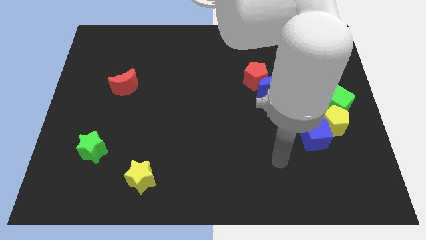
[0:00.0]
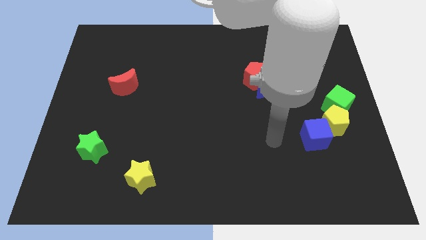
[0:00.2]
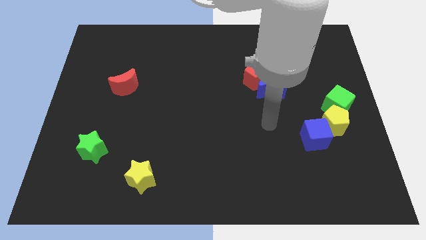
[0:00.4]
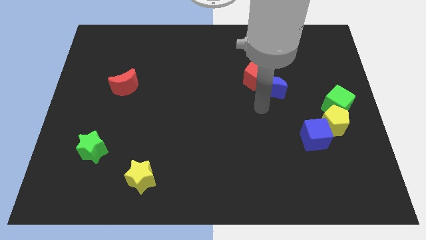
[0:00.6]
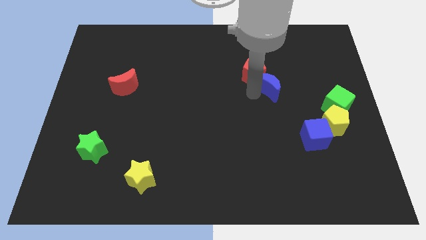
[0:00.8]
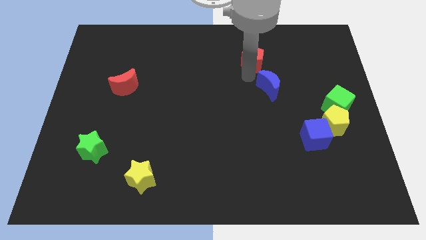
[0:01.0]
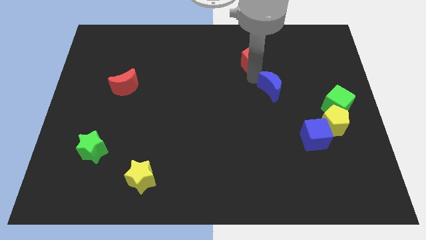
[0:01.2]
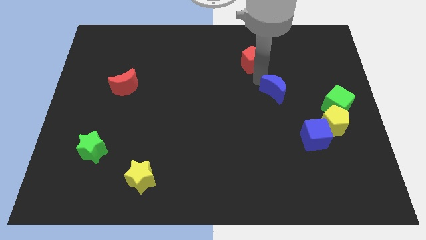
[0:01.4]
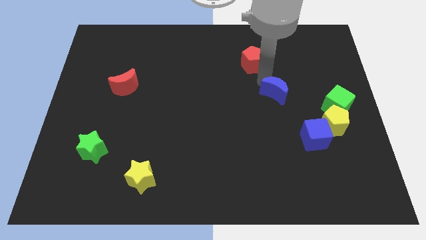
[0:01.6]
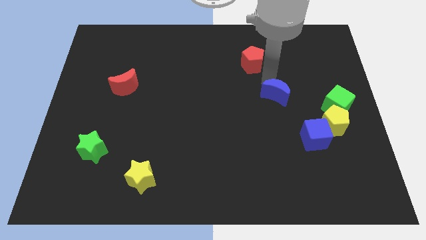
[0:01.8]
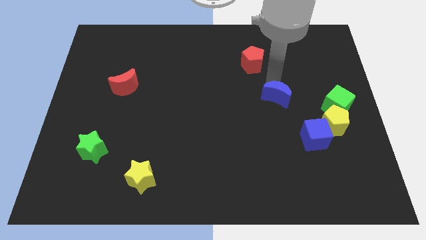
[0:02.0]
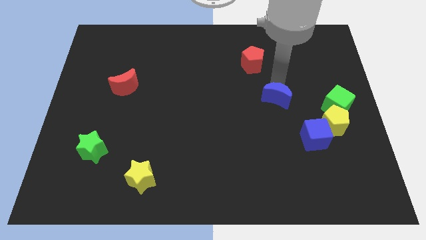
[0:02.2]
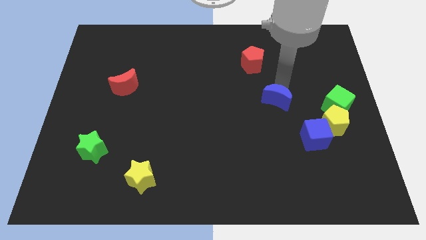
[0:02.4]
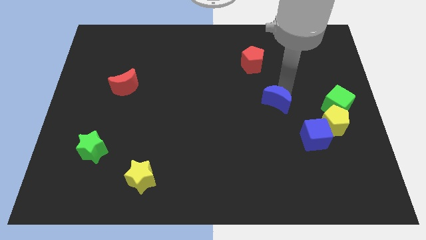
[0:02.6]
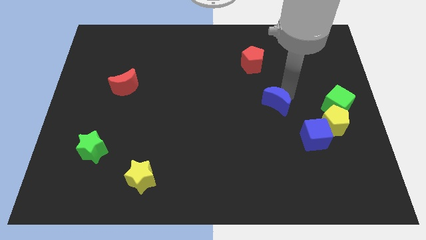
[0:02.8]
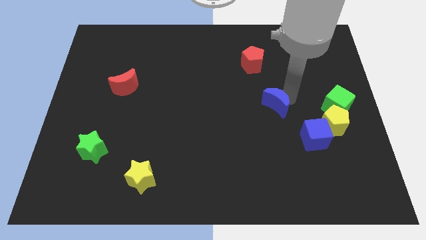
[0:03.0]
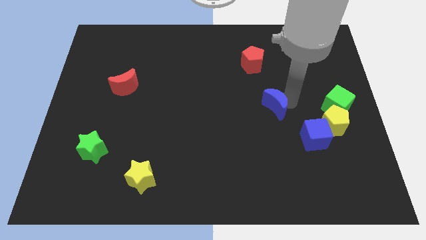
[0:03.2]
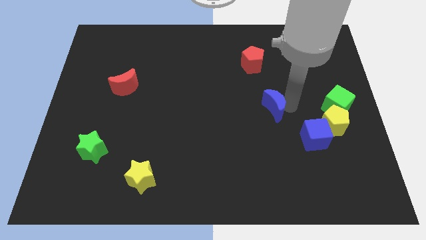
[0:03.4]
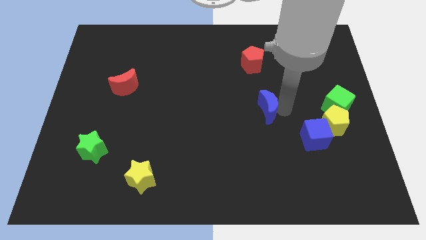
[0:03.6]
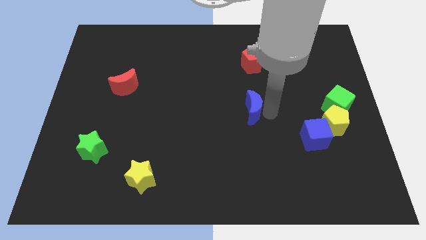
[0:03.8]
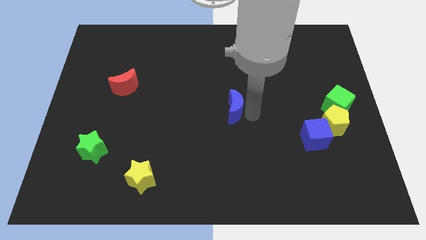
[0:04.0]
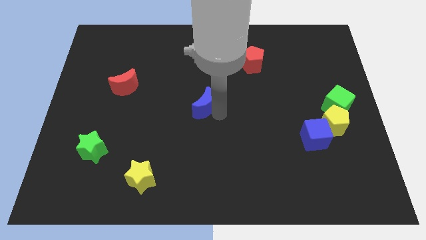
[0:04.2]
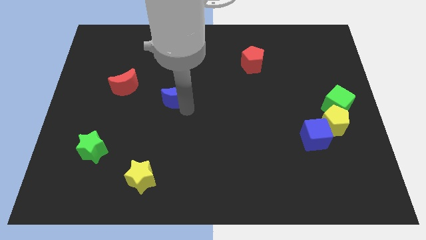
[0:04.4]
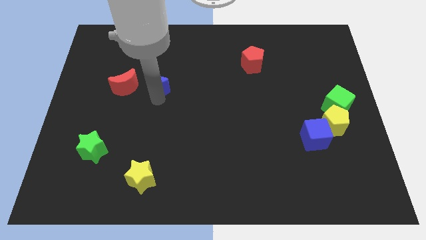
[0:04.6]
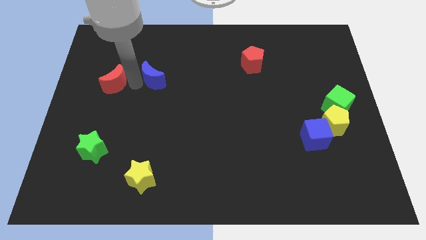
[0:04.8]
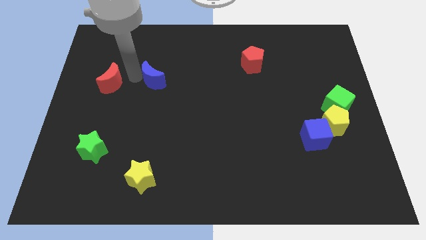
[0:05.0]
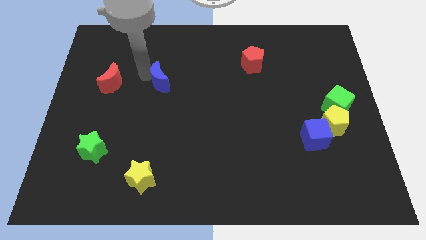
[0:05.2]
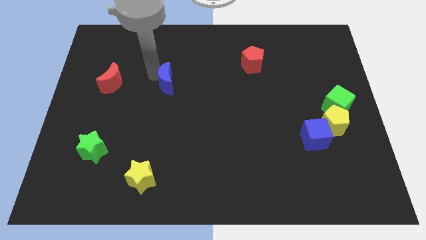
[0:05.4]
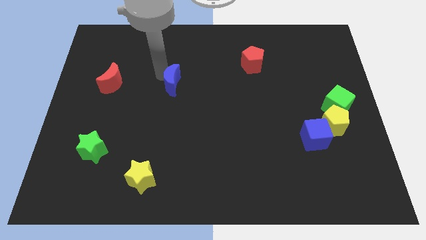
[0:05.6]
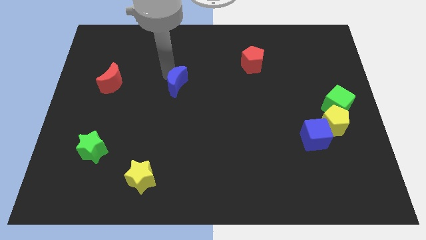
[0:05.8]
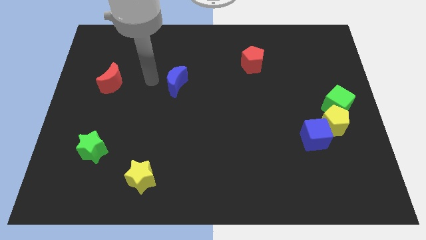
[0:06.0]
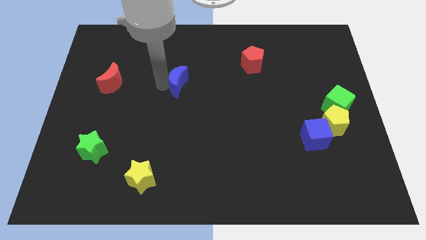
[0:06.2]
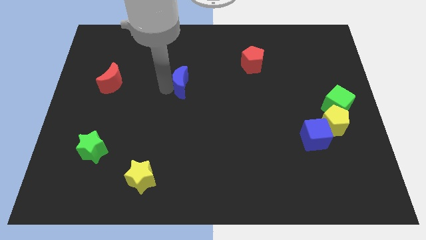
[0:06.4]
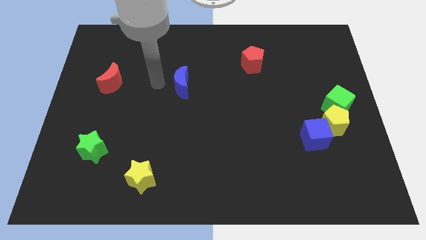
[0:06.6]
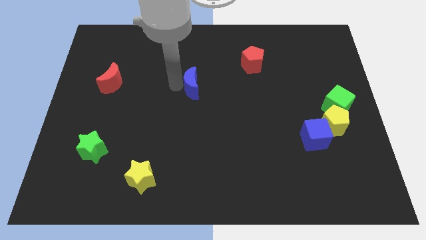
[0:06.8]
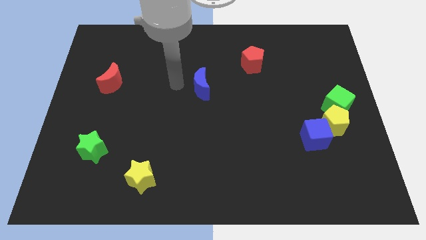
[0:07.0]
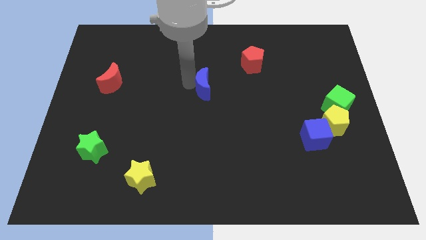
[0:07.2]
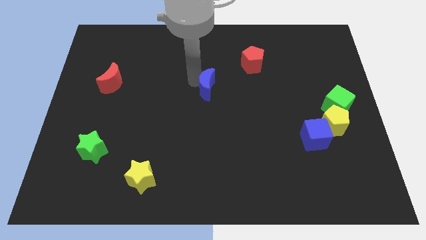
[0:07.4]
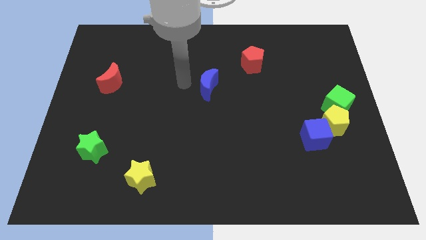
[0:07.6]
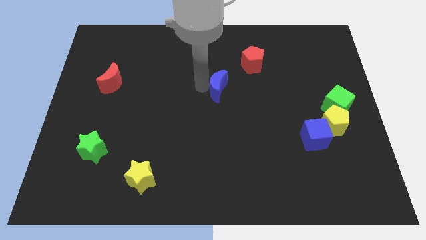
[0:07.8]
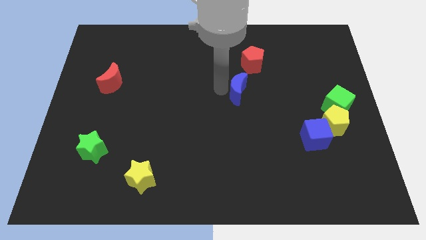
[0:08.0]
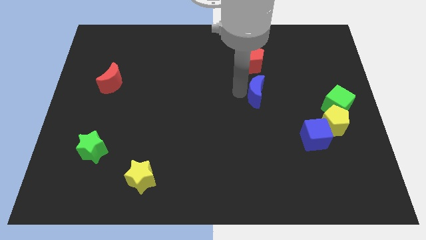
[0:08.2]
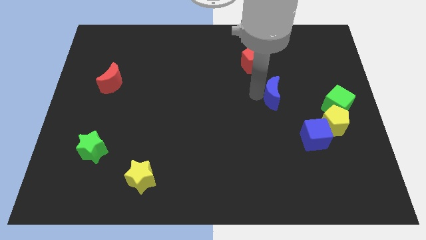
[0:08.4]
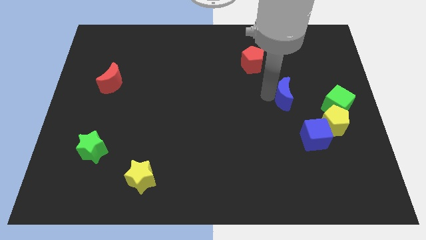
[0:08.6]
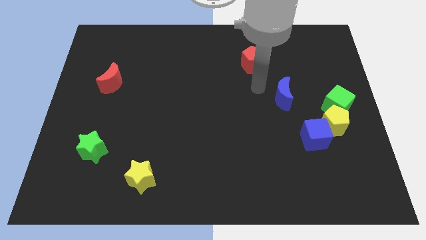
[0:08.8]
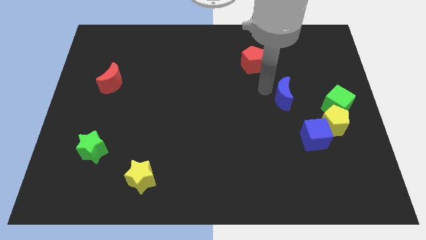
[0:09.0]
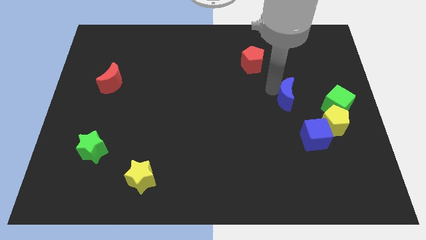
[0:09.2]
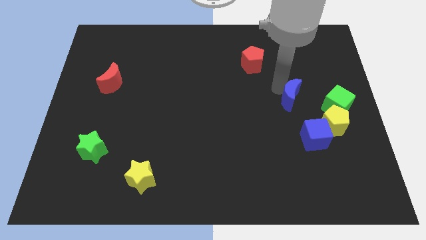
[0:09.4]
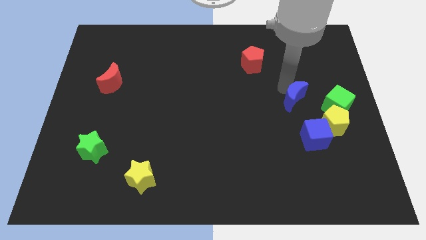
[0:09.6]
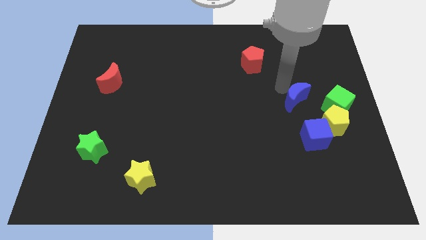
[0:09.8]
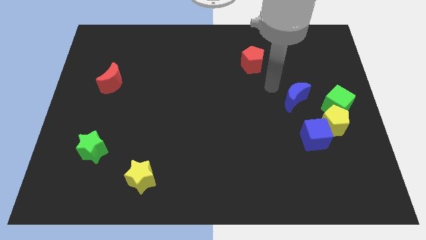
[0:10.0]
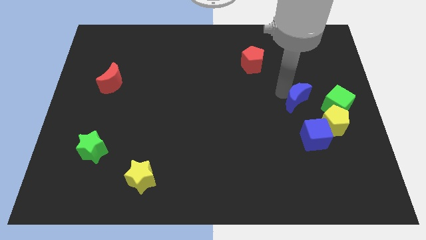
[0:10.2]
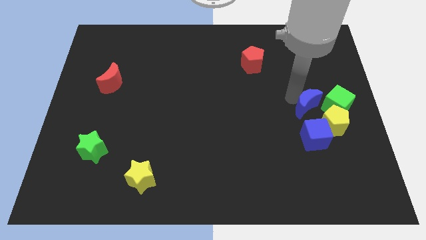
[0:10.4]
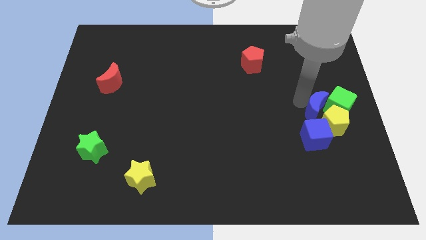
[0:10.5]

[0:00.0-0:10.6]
move the blue moon towards the yellow pentagon

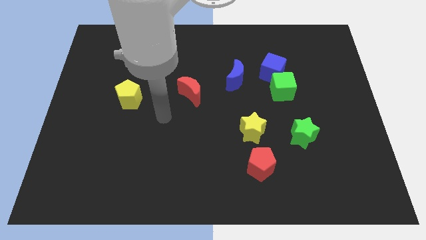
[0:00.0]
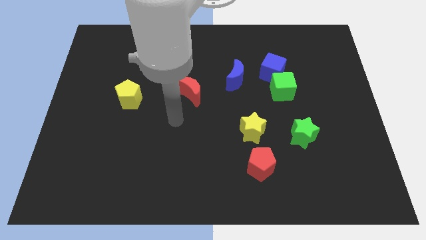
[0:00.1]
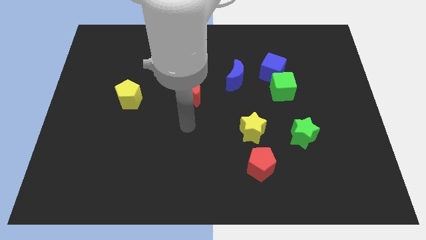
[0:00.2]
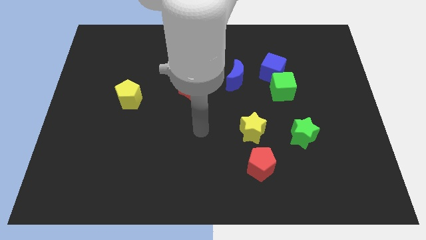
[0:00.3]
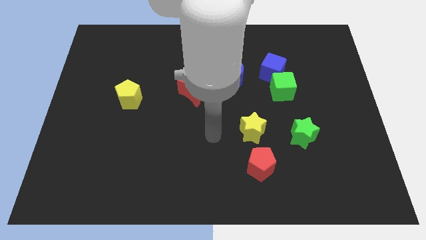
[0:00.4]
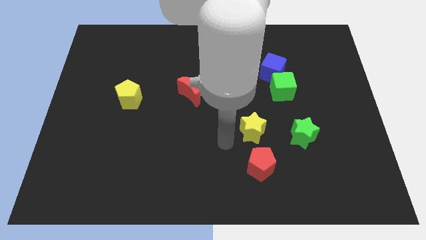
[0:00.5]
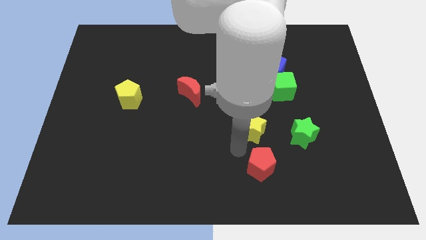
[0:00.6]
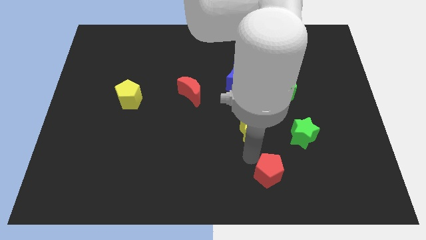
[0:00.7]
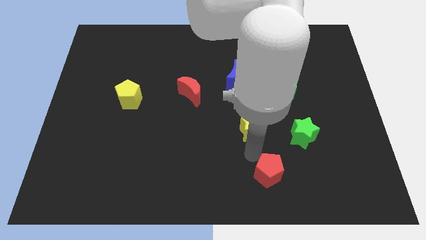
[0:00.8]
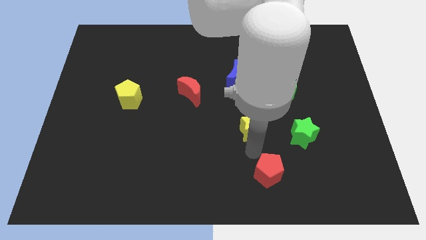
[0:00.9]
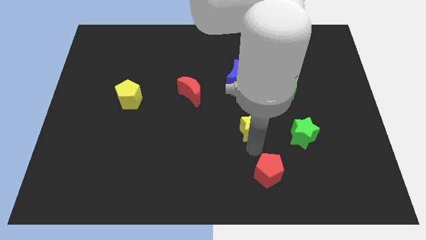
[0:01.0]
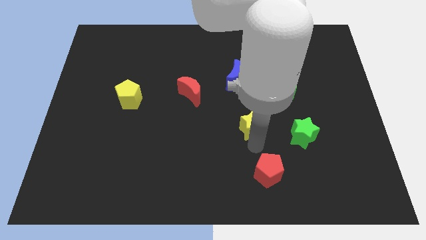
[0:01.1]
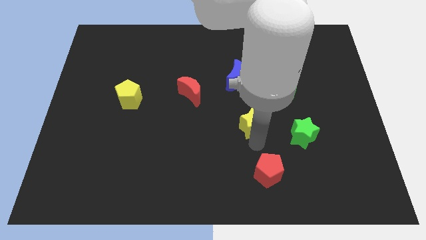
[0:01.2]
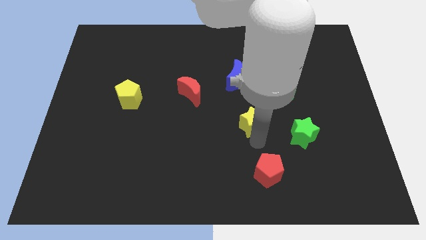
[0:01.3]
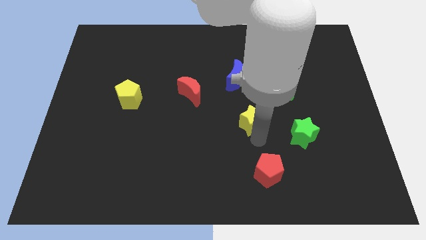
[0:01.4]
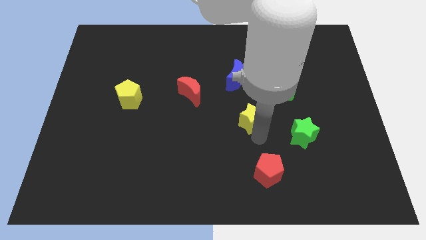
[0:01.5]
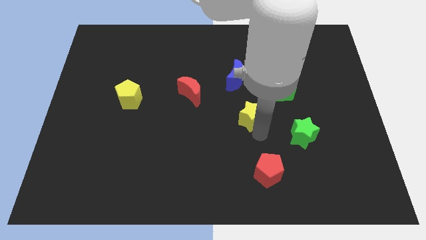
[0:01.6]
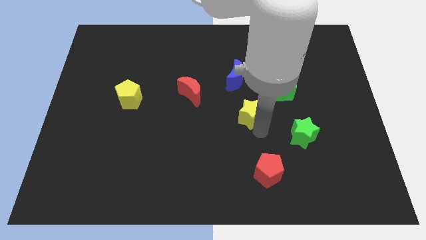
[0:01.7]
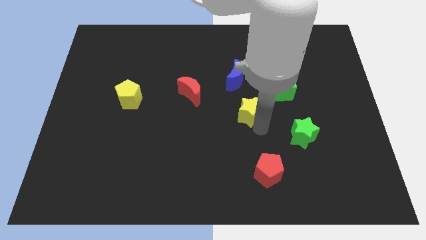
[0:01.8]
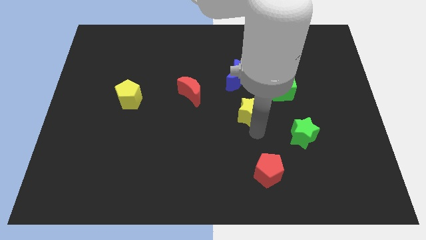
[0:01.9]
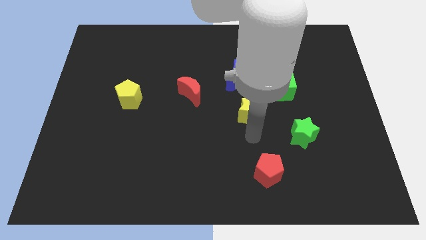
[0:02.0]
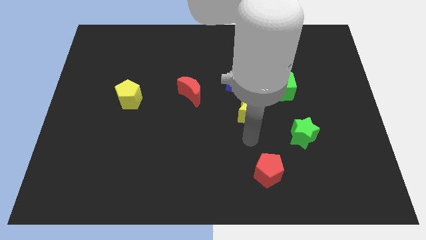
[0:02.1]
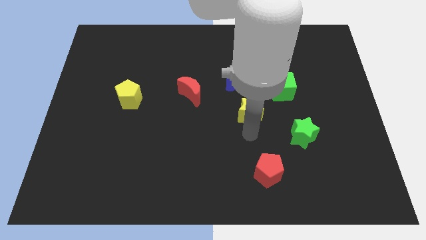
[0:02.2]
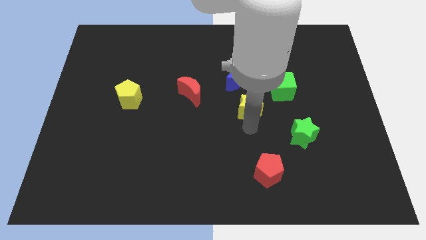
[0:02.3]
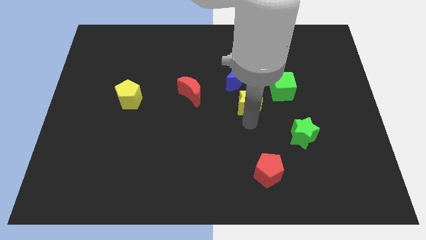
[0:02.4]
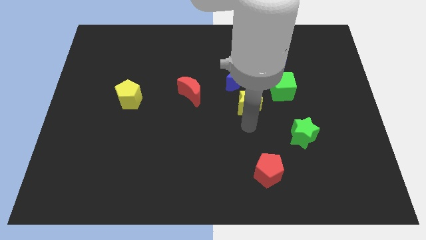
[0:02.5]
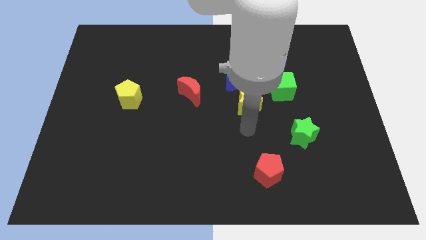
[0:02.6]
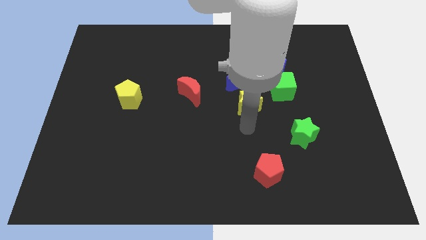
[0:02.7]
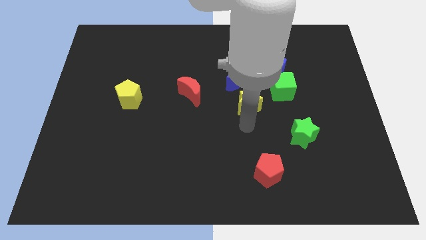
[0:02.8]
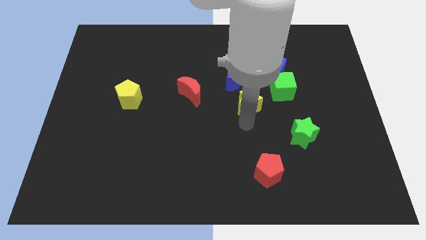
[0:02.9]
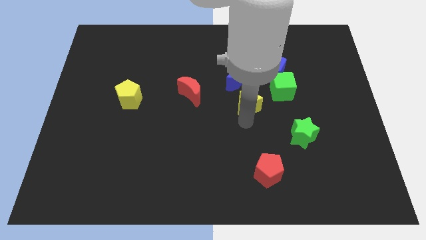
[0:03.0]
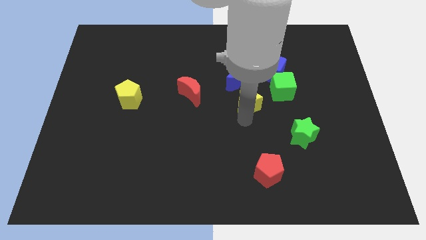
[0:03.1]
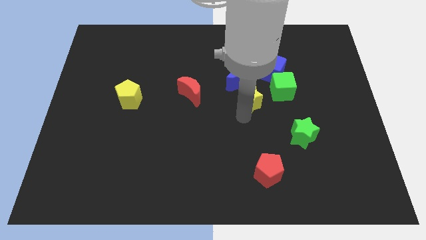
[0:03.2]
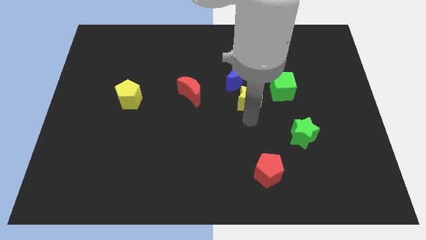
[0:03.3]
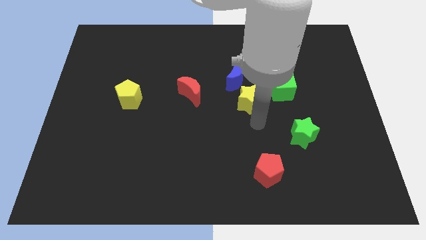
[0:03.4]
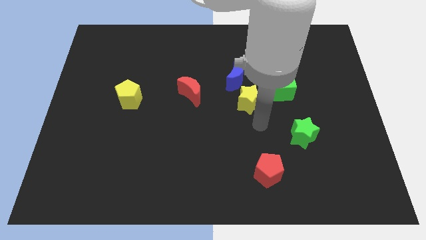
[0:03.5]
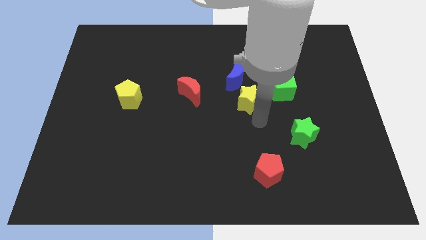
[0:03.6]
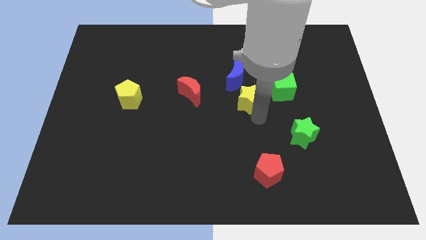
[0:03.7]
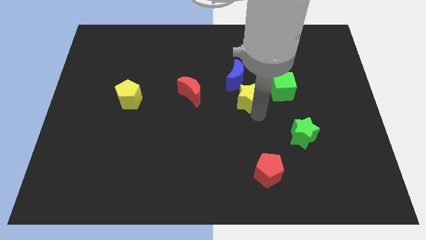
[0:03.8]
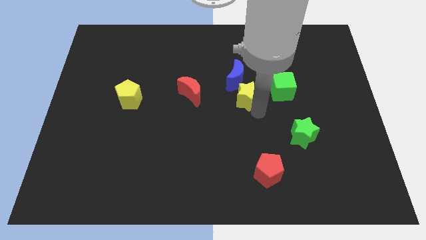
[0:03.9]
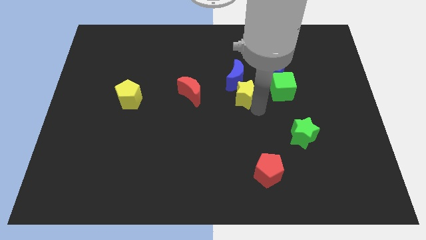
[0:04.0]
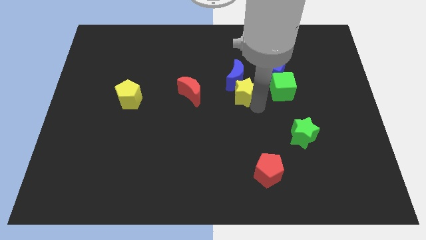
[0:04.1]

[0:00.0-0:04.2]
push the yellow star close to the blue moon
